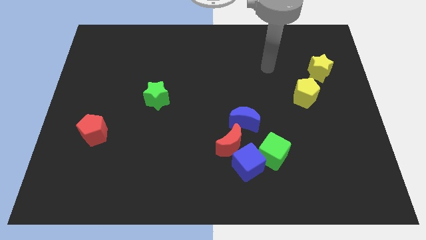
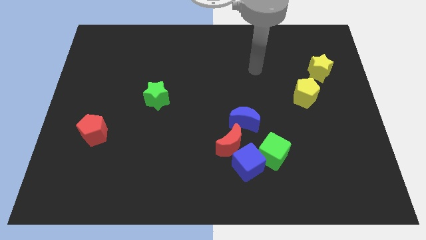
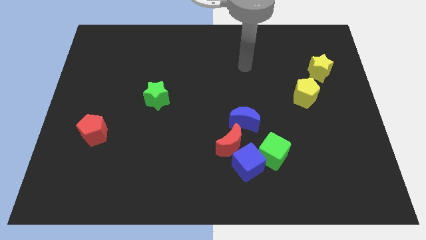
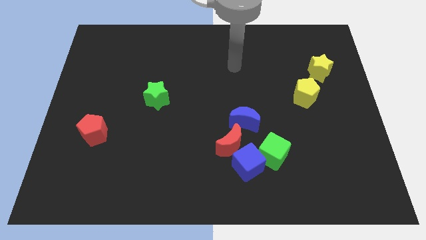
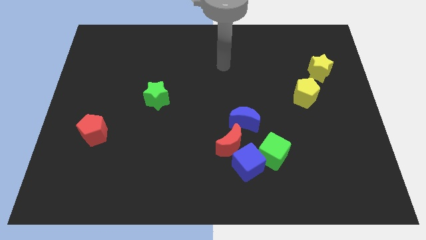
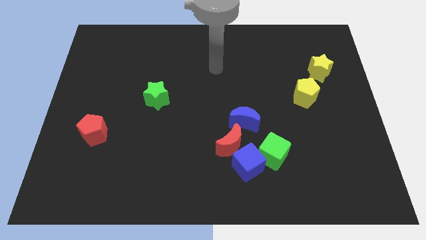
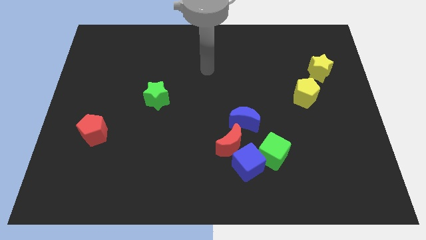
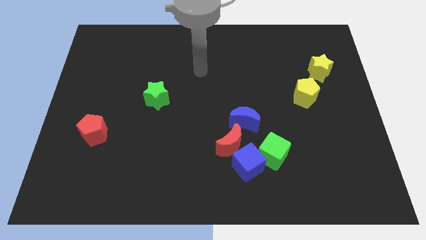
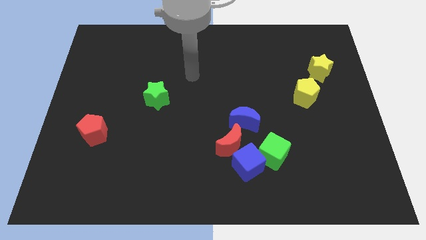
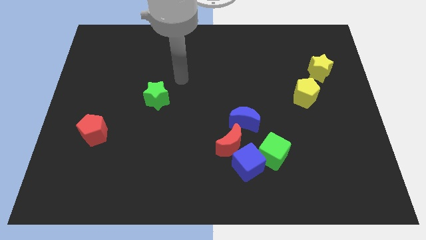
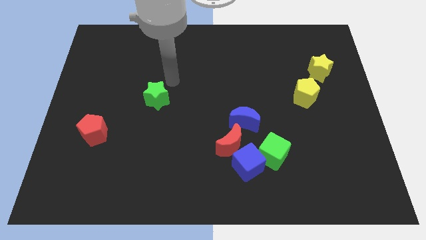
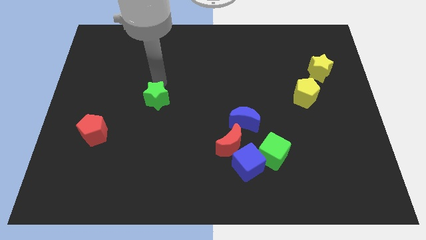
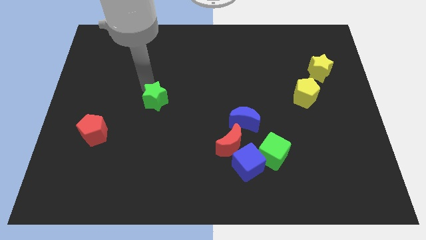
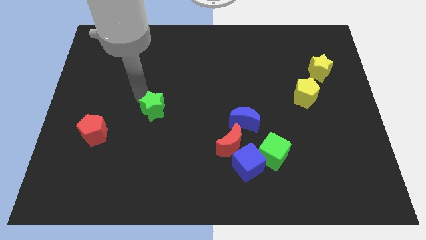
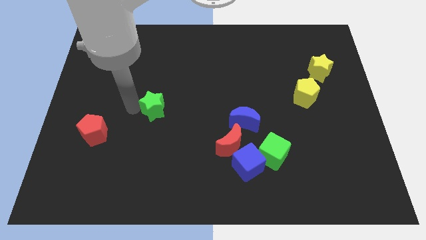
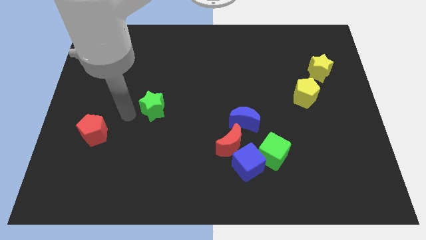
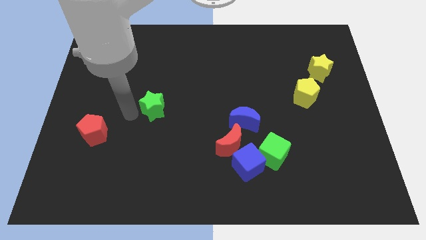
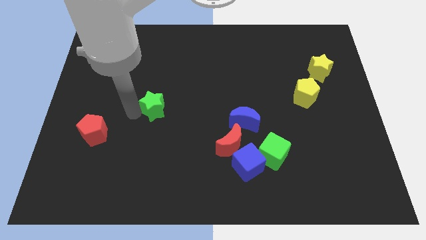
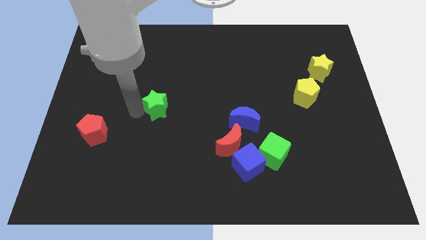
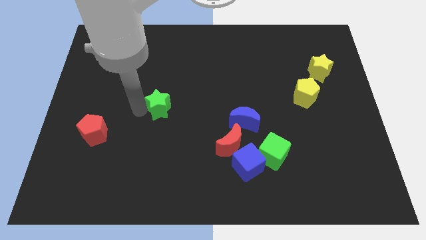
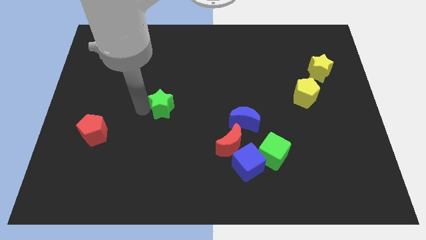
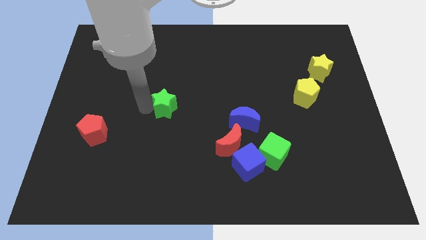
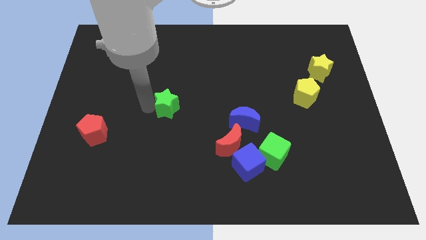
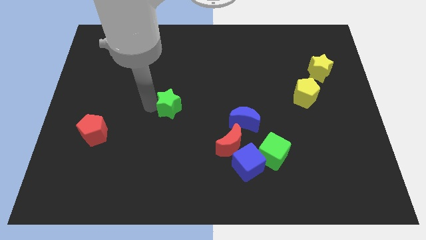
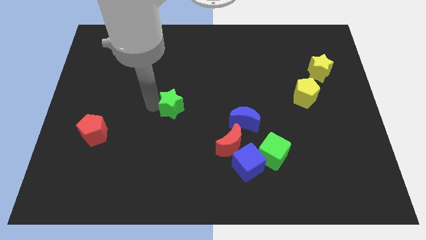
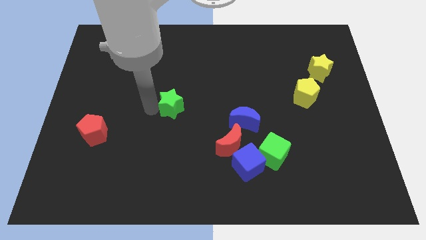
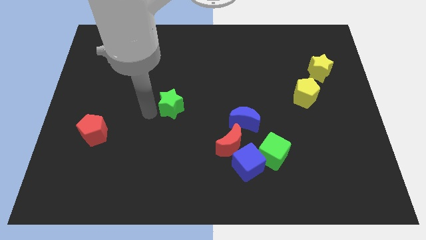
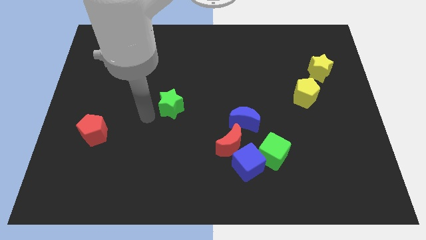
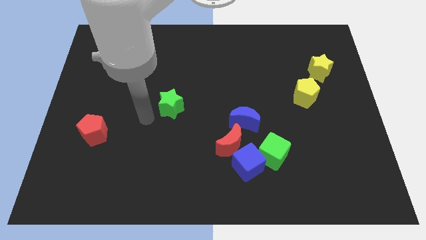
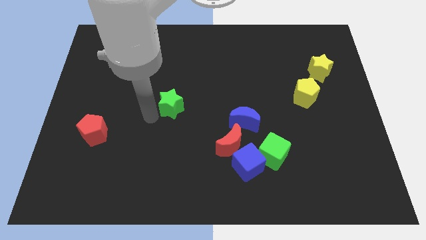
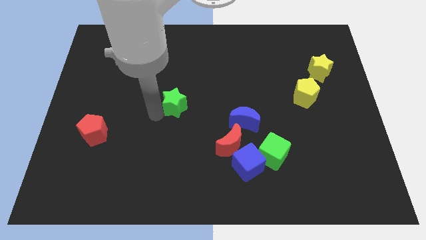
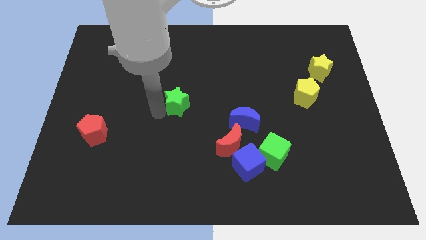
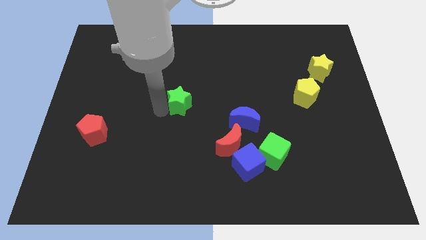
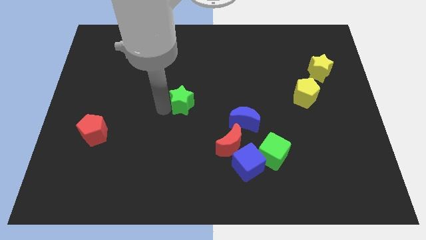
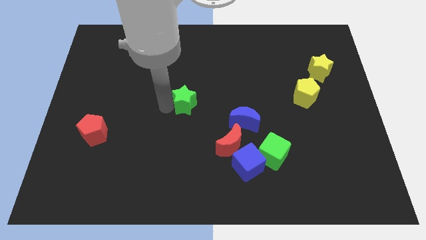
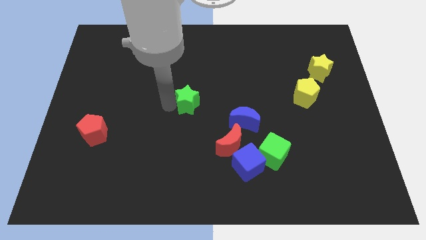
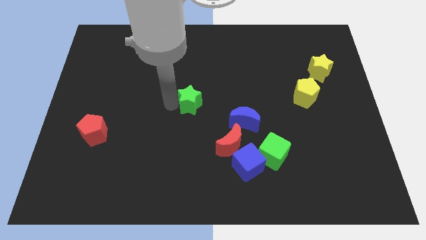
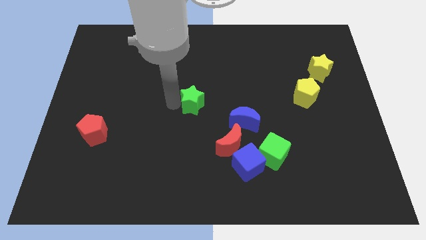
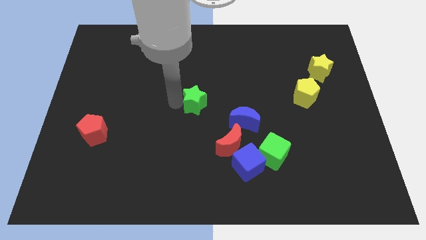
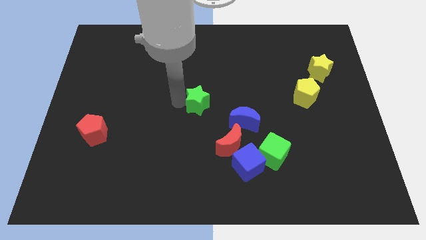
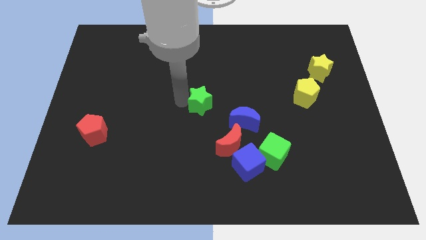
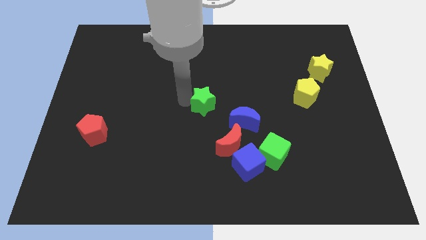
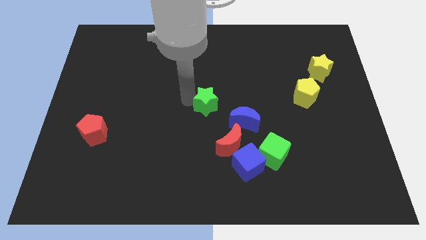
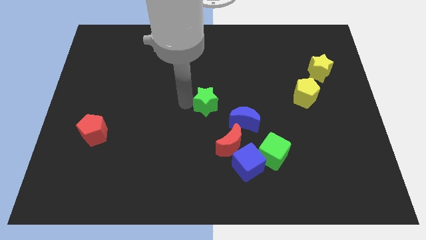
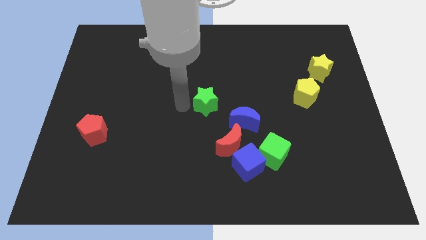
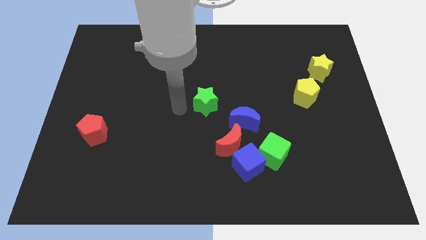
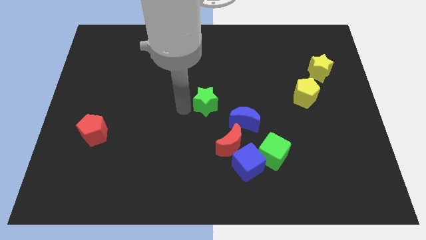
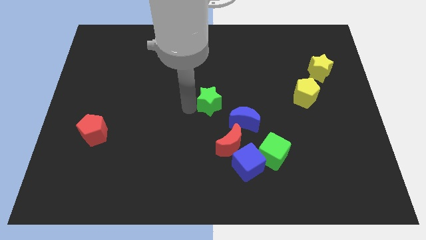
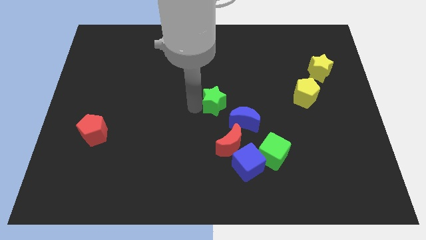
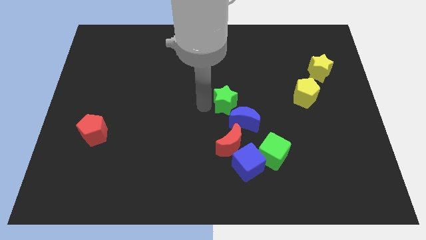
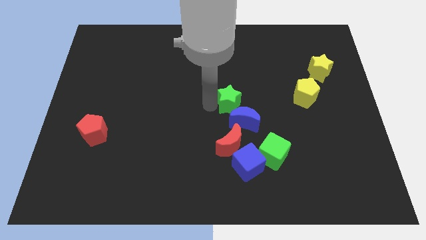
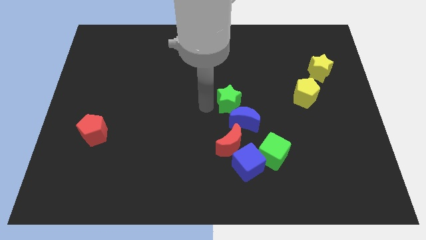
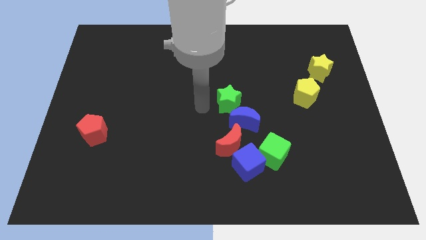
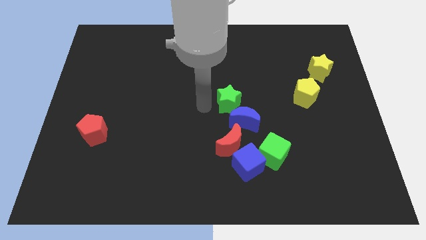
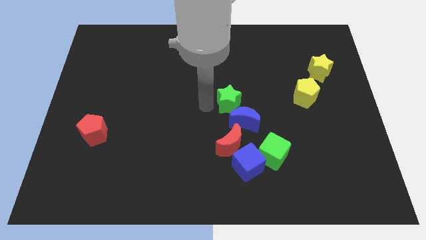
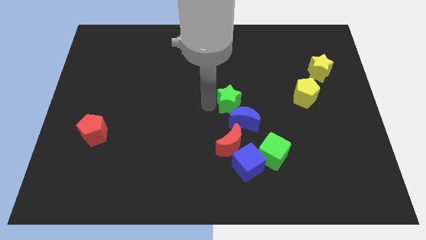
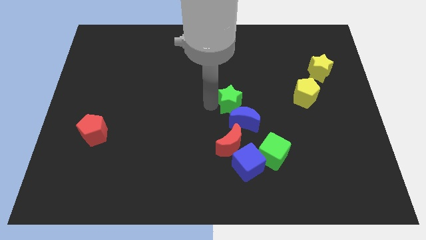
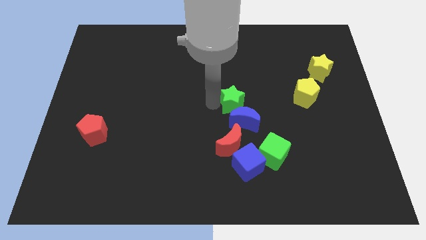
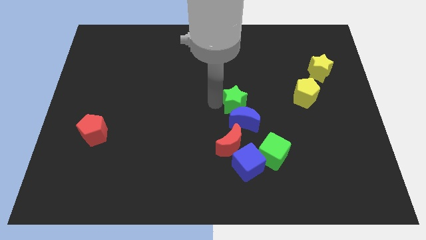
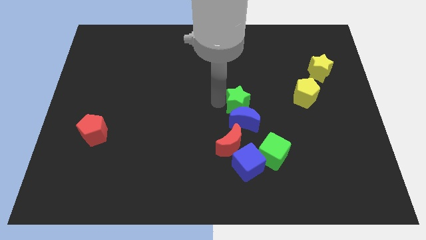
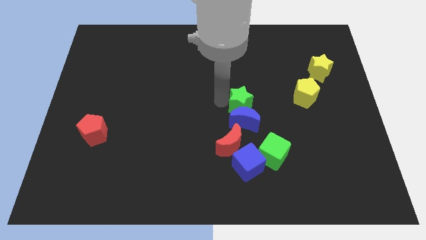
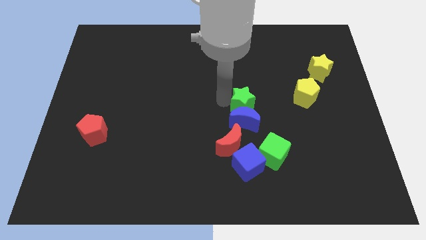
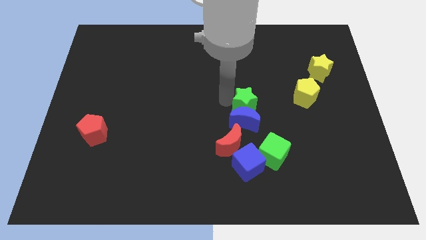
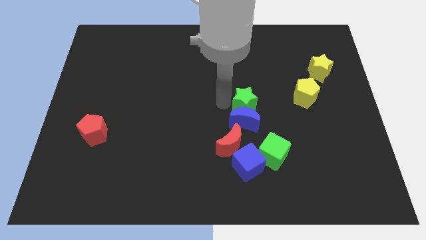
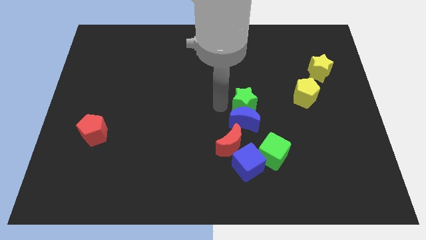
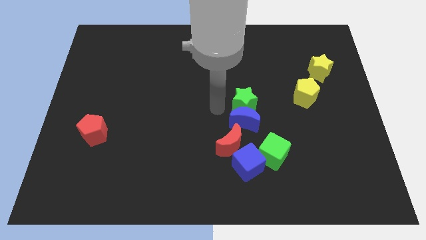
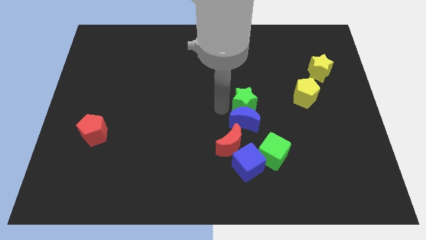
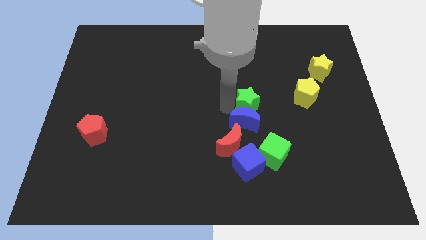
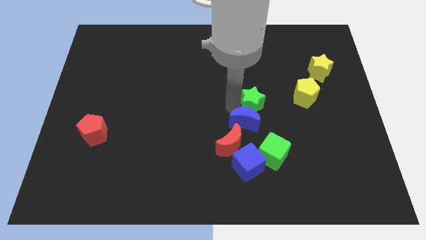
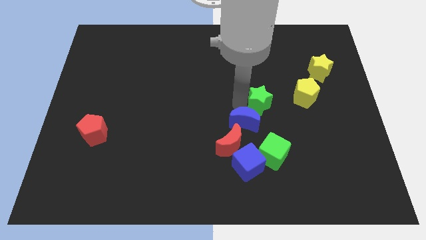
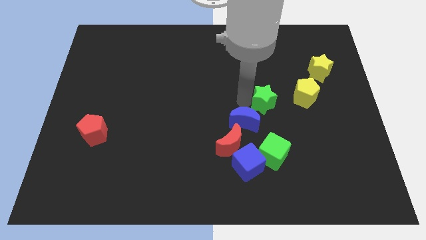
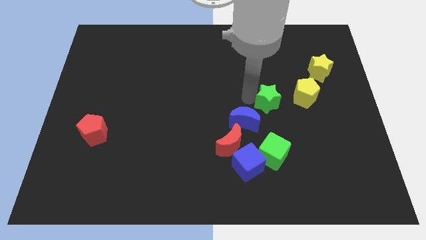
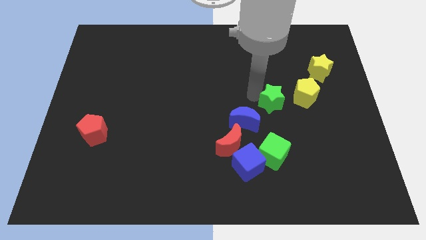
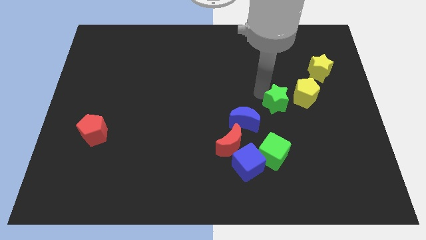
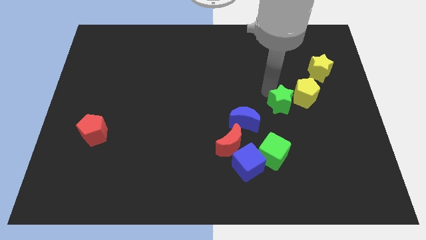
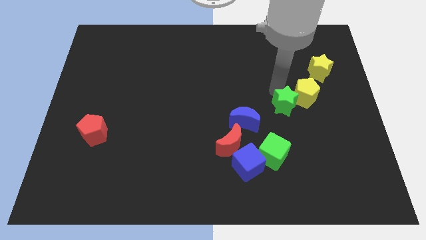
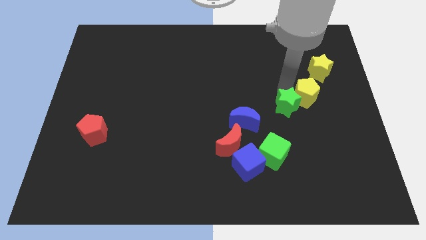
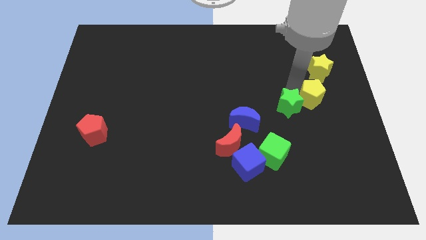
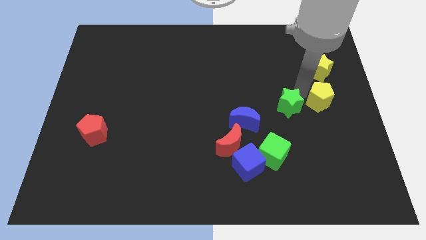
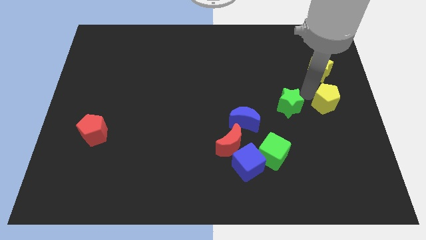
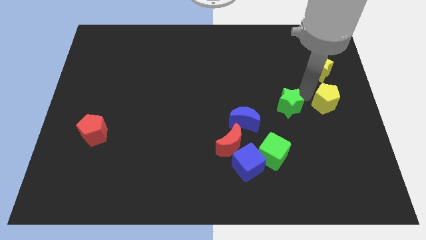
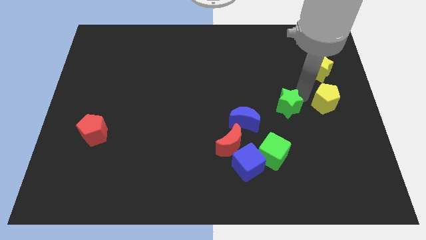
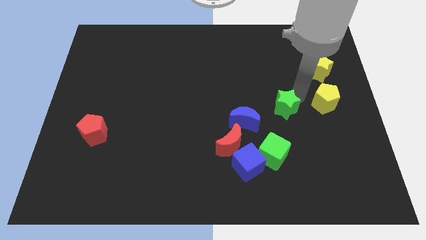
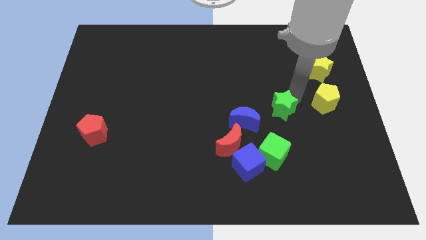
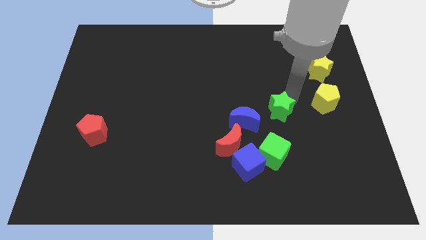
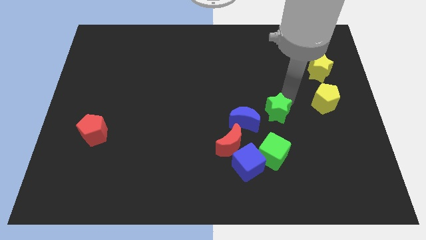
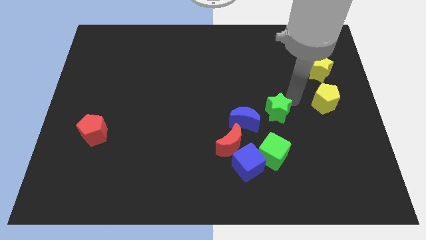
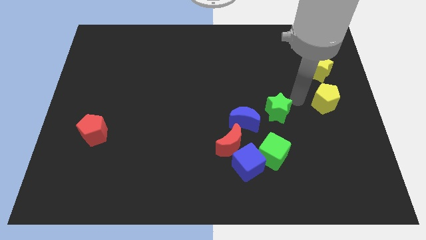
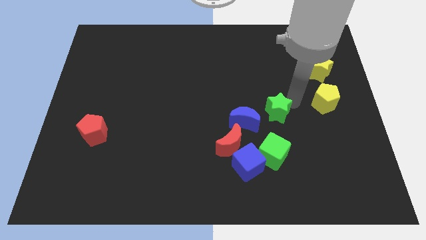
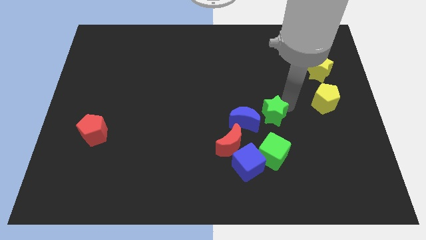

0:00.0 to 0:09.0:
slide the green star to the top right of the red moon
